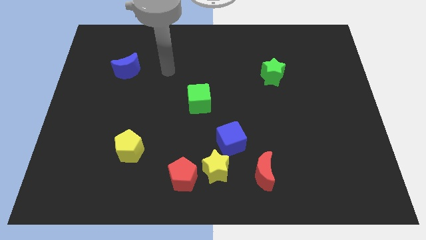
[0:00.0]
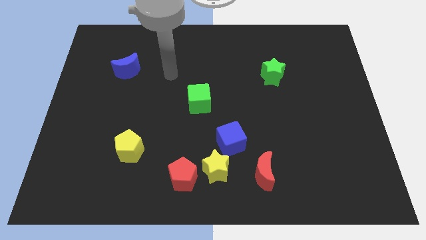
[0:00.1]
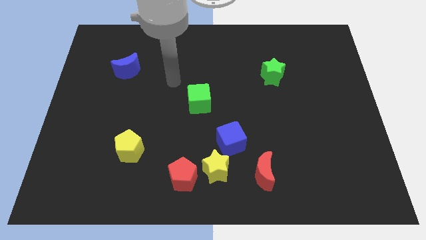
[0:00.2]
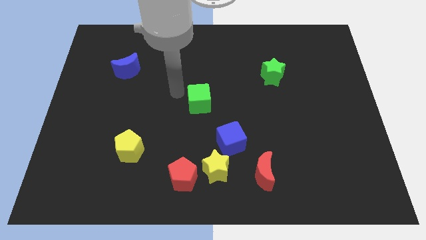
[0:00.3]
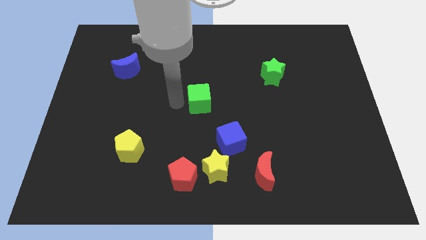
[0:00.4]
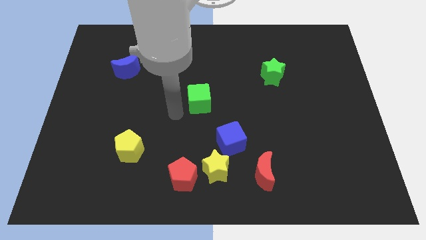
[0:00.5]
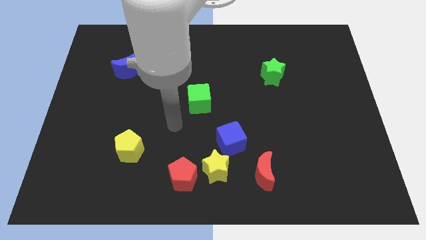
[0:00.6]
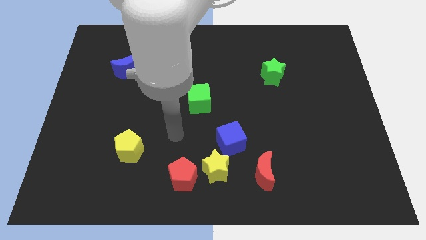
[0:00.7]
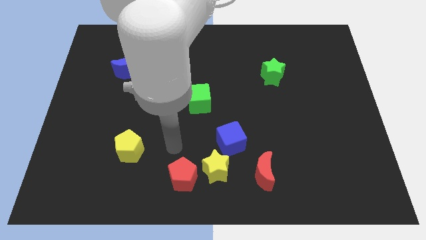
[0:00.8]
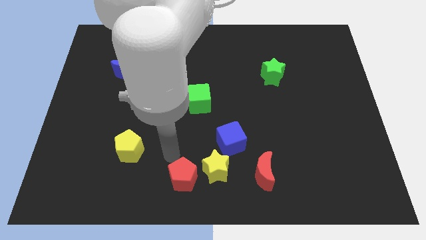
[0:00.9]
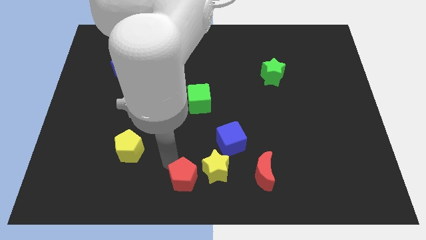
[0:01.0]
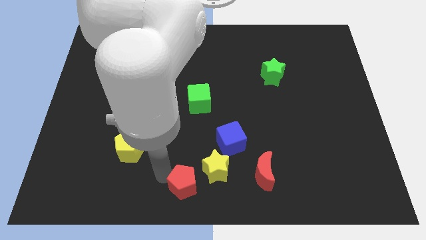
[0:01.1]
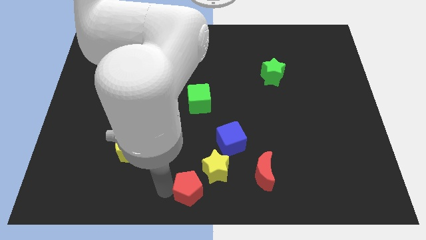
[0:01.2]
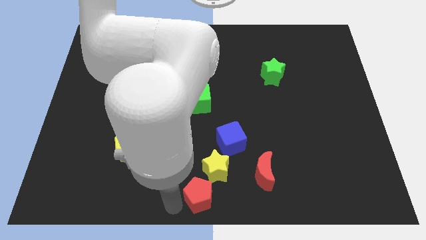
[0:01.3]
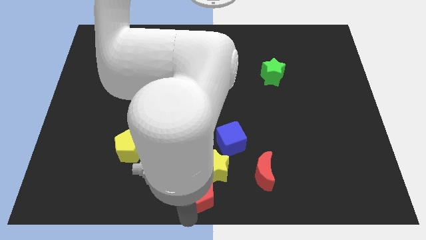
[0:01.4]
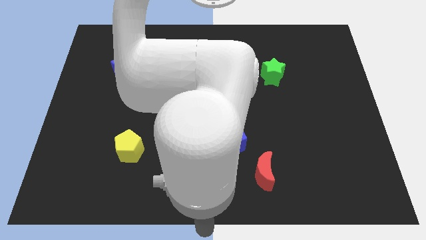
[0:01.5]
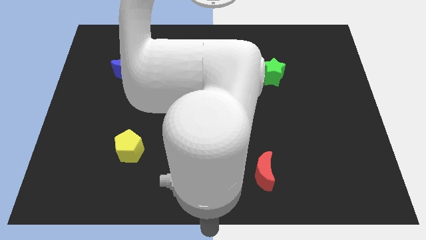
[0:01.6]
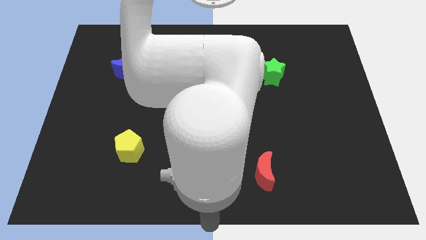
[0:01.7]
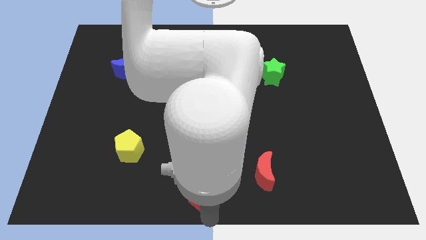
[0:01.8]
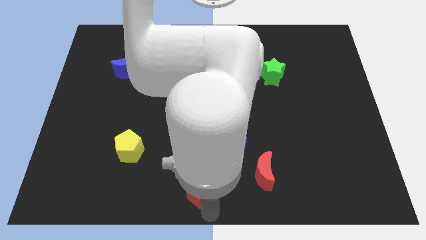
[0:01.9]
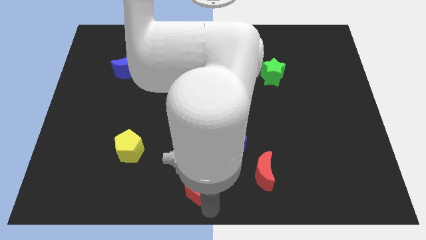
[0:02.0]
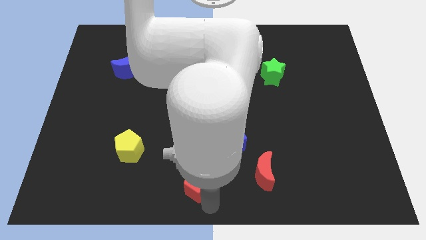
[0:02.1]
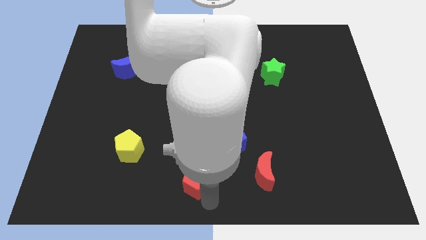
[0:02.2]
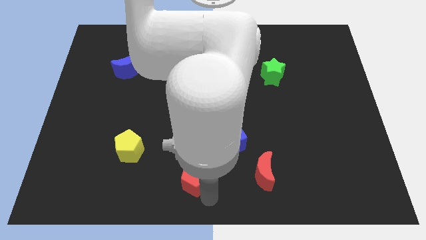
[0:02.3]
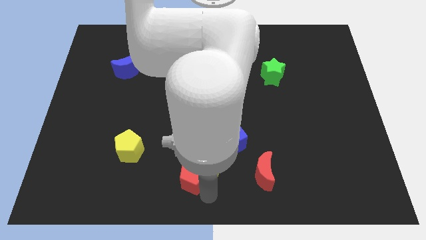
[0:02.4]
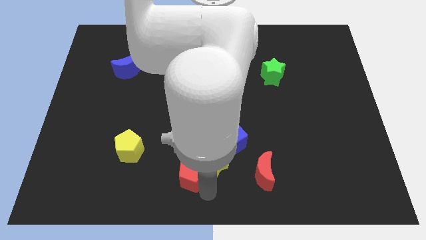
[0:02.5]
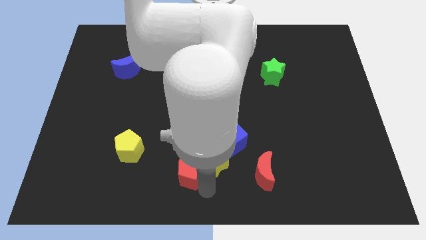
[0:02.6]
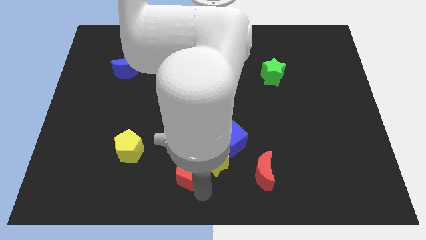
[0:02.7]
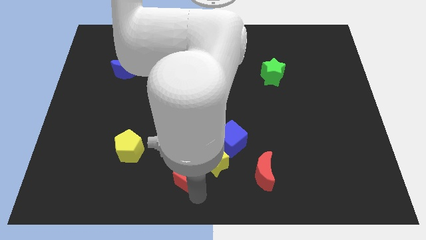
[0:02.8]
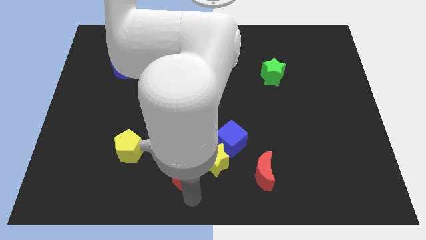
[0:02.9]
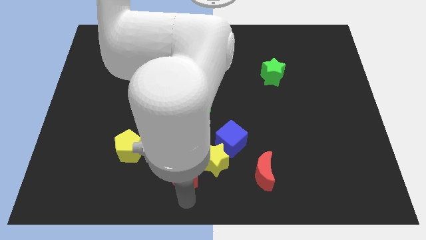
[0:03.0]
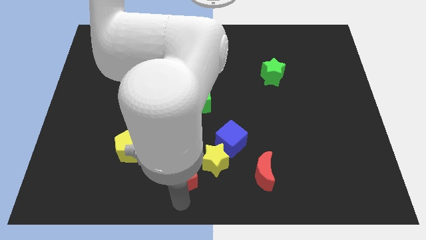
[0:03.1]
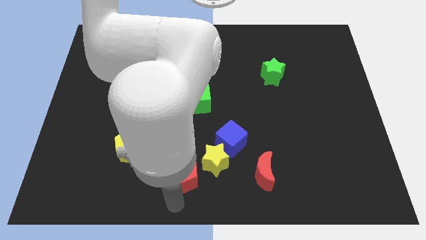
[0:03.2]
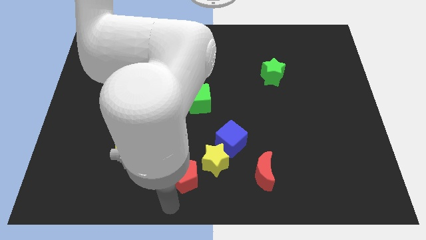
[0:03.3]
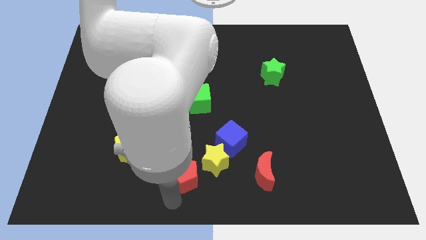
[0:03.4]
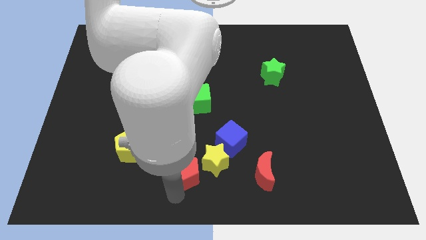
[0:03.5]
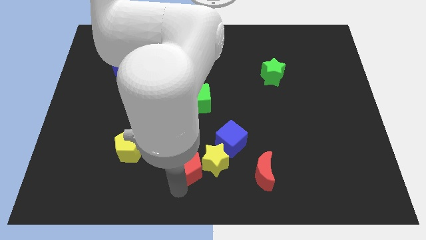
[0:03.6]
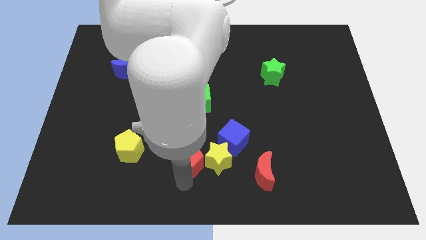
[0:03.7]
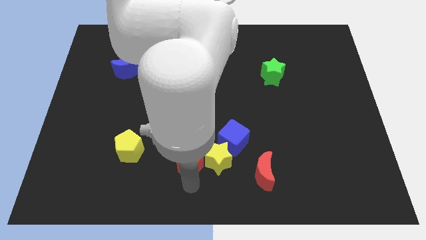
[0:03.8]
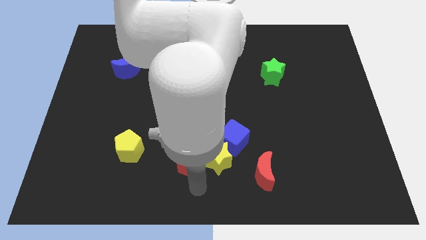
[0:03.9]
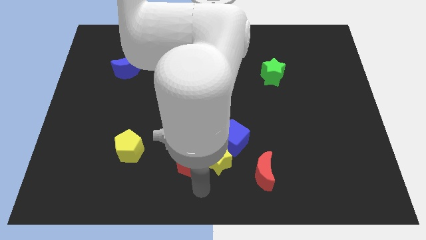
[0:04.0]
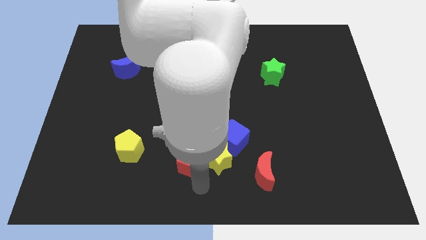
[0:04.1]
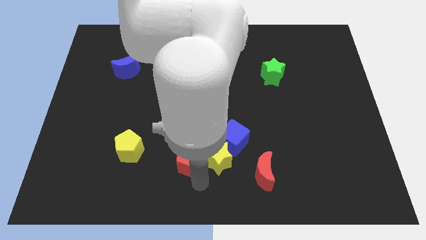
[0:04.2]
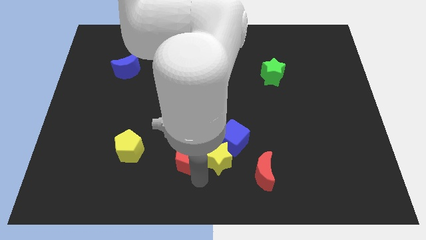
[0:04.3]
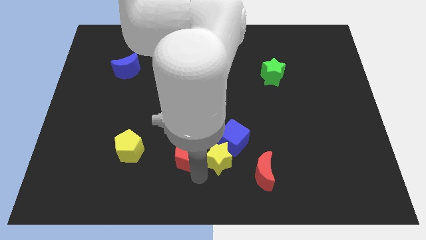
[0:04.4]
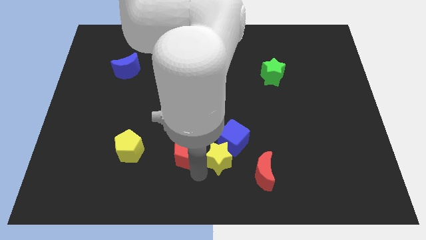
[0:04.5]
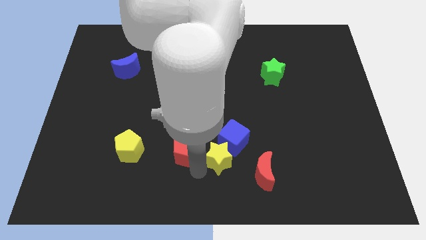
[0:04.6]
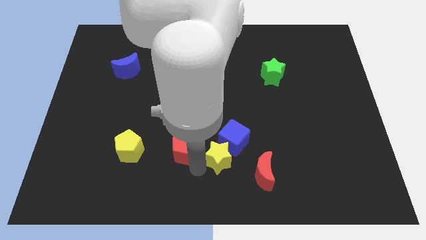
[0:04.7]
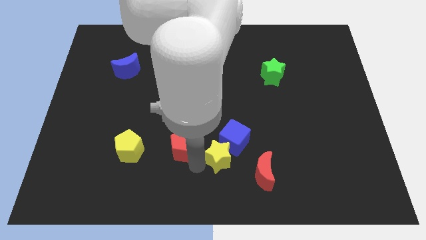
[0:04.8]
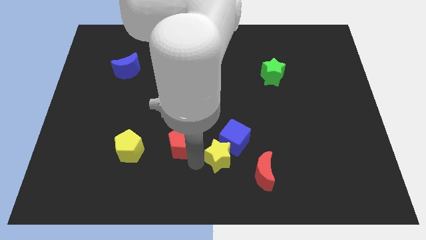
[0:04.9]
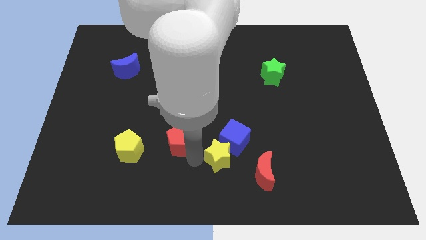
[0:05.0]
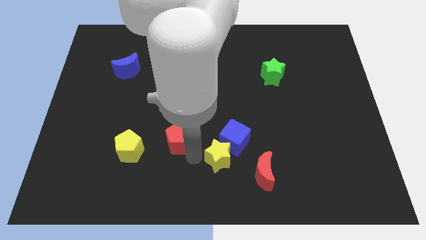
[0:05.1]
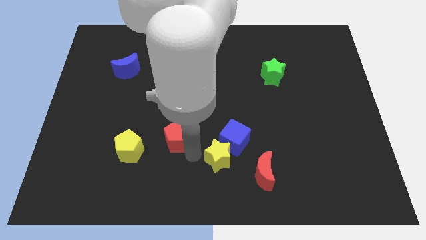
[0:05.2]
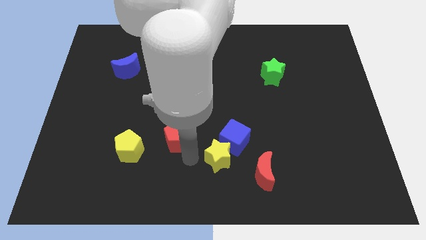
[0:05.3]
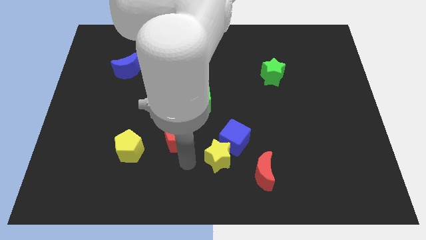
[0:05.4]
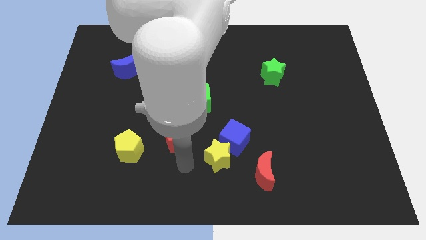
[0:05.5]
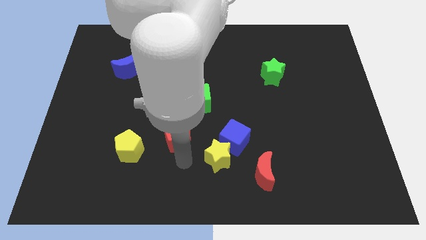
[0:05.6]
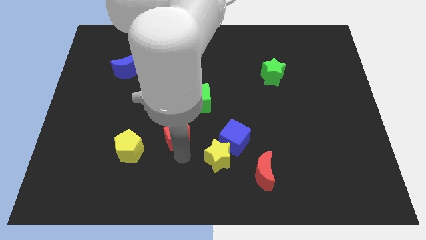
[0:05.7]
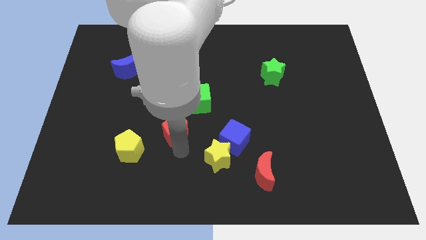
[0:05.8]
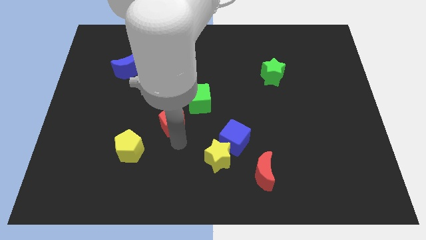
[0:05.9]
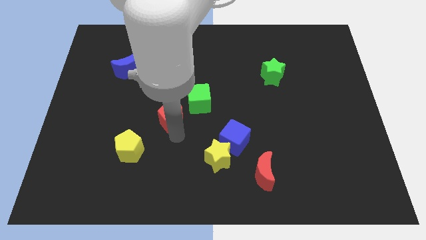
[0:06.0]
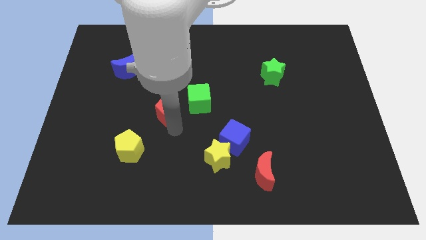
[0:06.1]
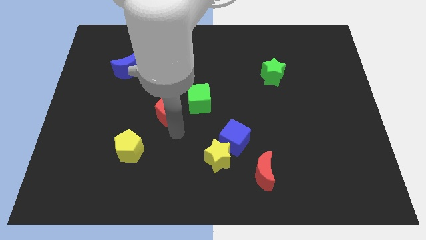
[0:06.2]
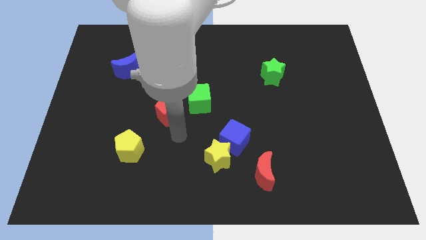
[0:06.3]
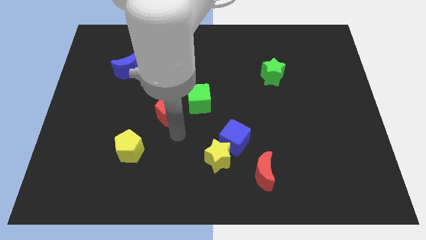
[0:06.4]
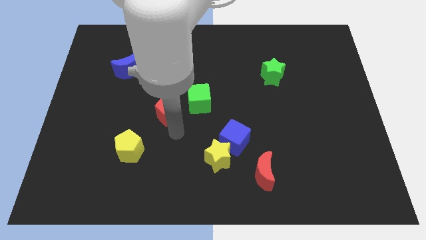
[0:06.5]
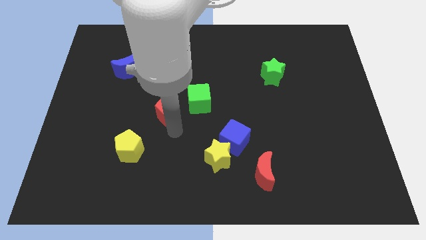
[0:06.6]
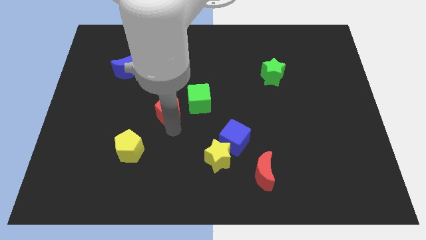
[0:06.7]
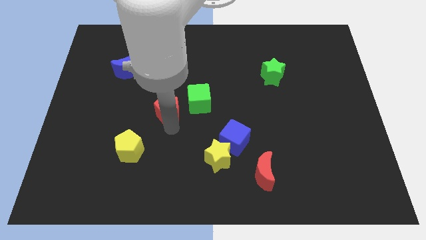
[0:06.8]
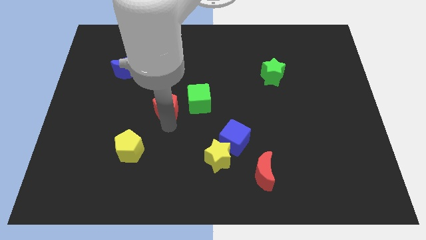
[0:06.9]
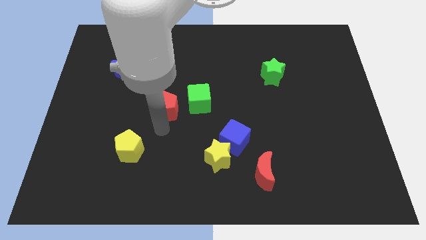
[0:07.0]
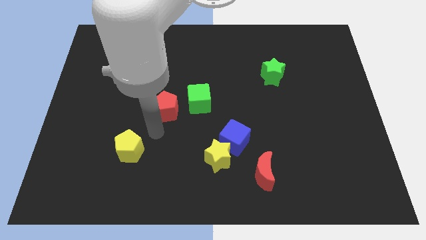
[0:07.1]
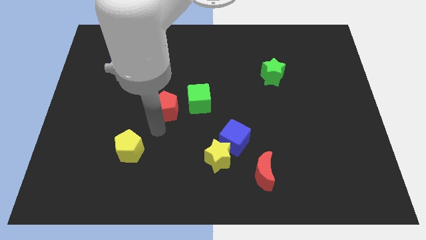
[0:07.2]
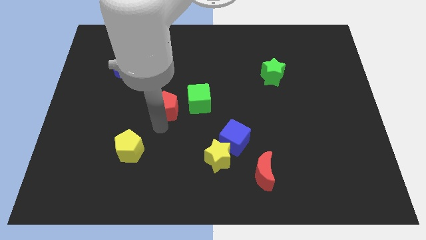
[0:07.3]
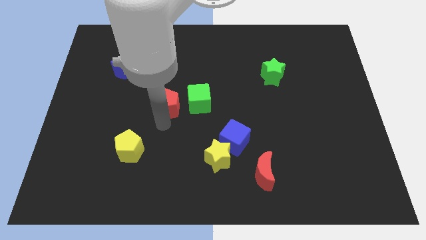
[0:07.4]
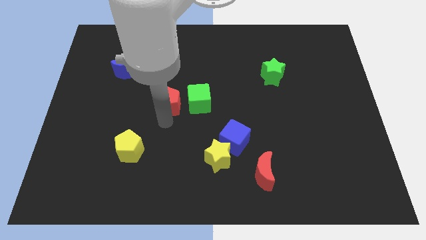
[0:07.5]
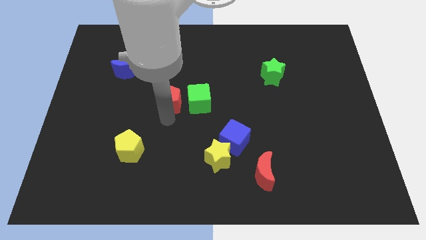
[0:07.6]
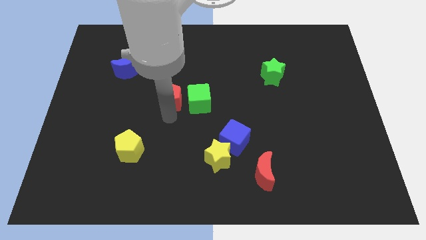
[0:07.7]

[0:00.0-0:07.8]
move the red pentagon to the top left side of the green cube
